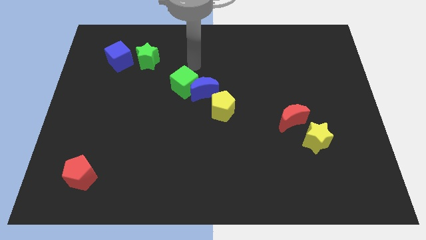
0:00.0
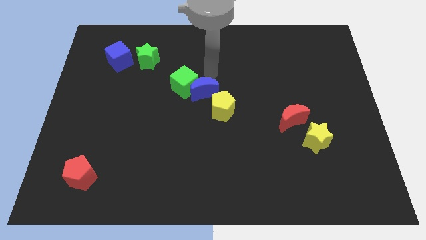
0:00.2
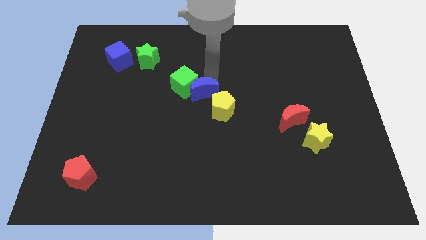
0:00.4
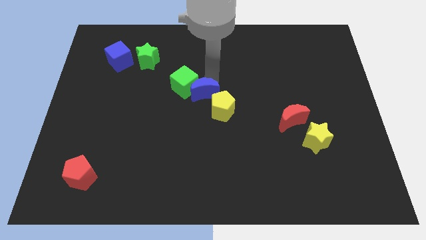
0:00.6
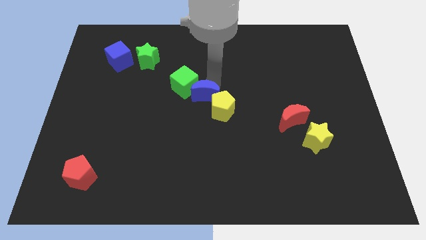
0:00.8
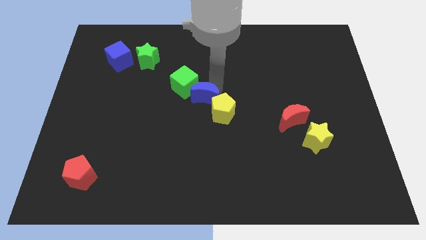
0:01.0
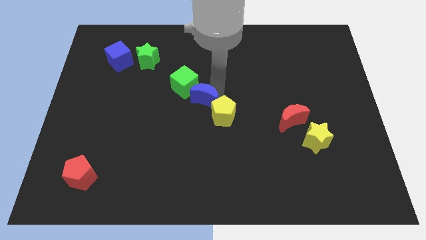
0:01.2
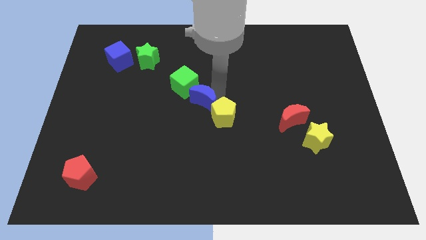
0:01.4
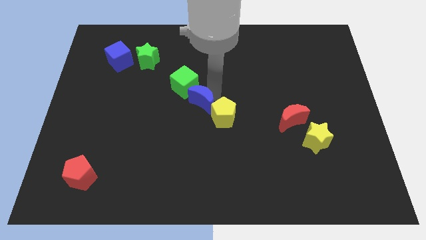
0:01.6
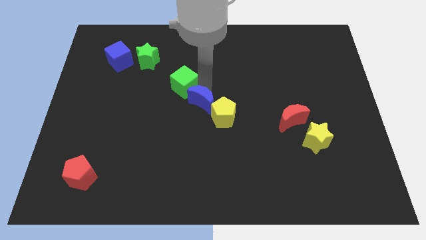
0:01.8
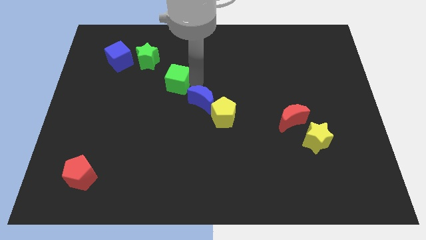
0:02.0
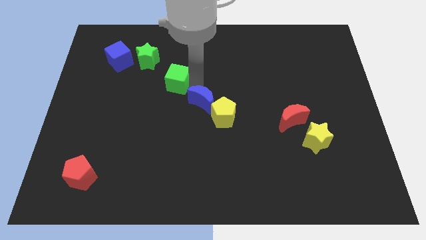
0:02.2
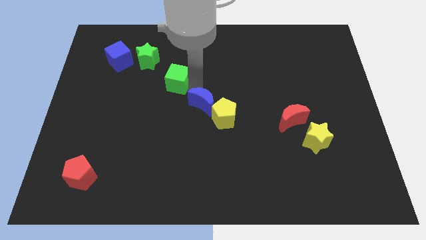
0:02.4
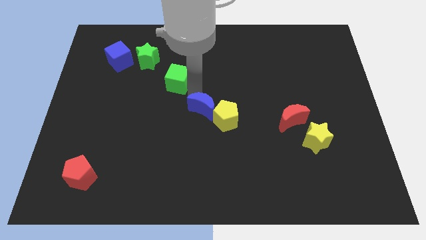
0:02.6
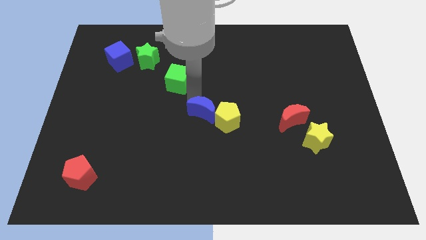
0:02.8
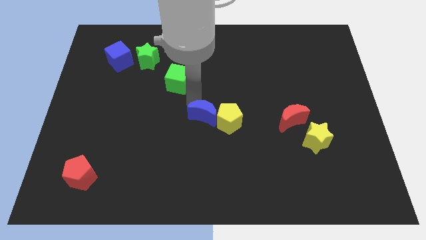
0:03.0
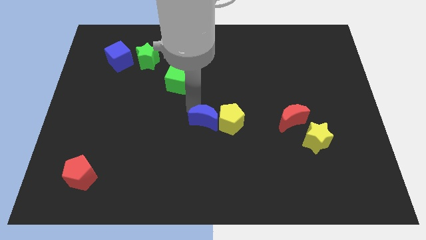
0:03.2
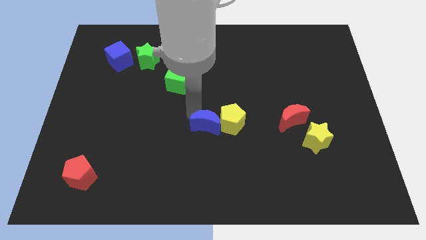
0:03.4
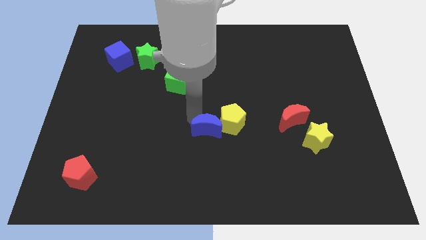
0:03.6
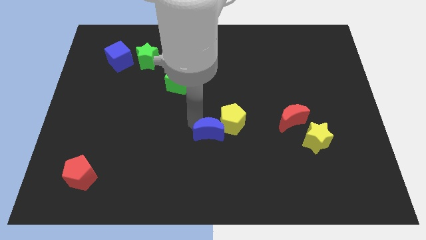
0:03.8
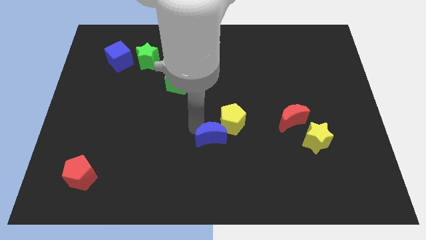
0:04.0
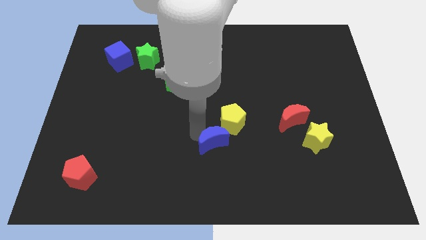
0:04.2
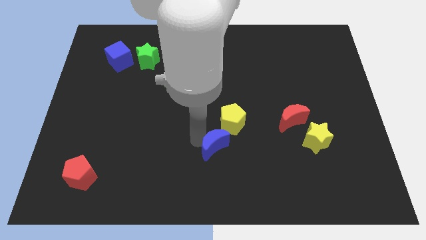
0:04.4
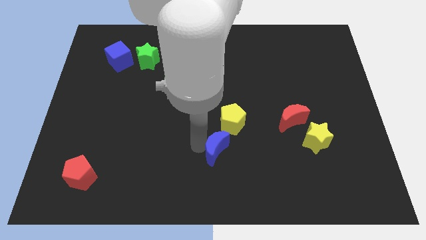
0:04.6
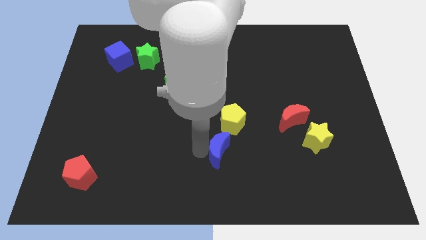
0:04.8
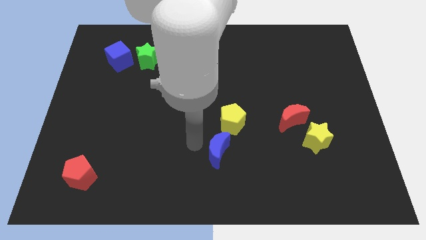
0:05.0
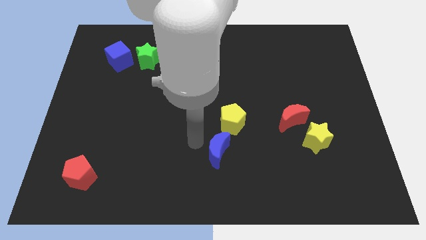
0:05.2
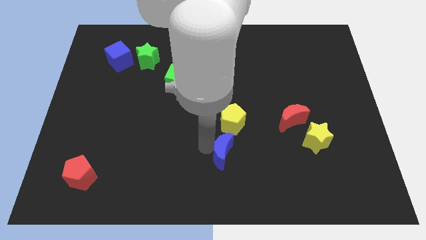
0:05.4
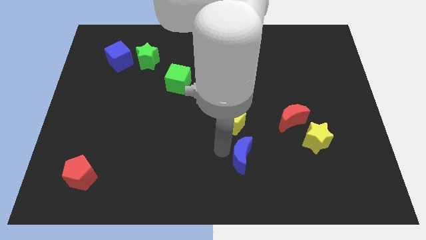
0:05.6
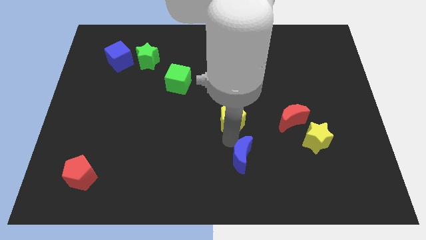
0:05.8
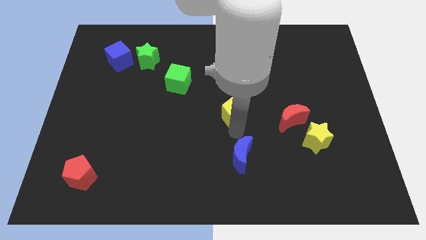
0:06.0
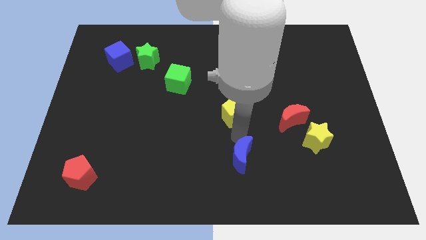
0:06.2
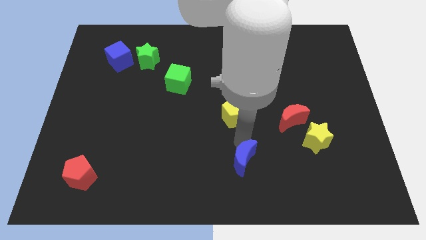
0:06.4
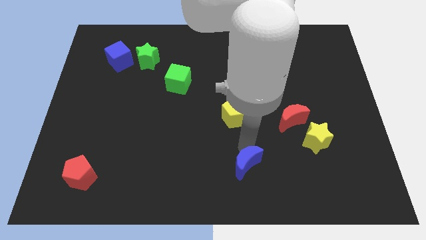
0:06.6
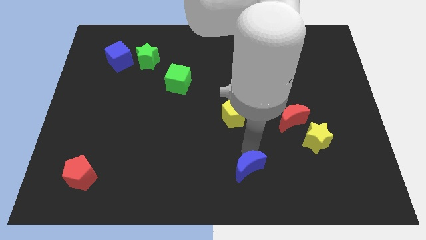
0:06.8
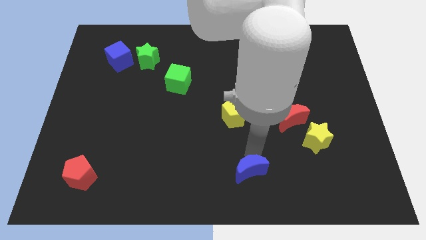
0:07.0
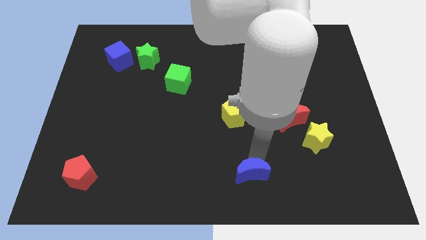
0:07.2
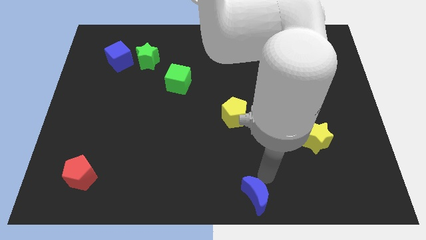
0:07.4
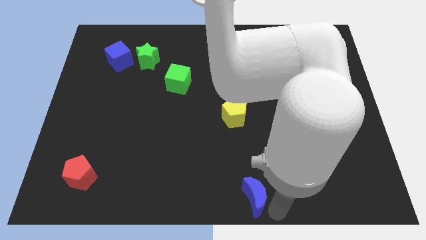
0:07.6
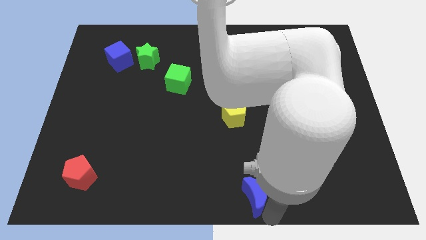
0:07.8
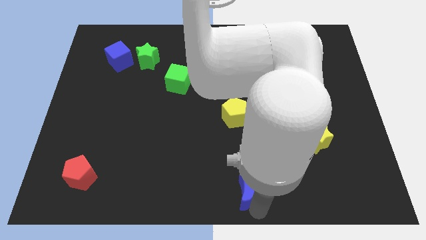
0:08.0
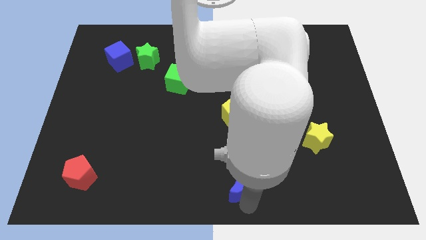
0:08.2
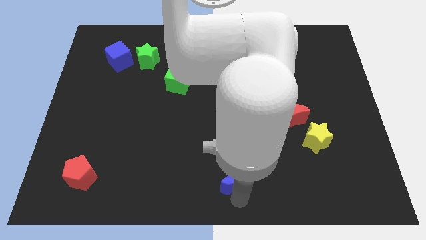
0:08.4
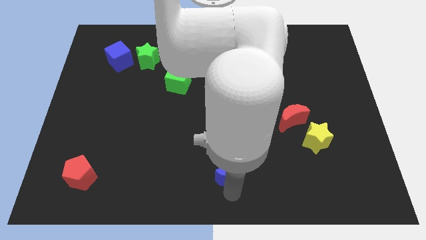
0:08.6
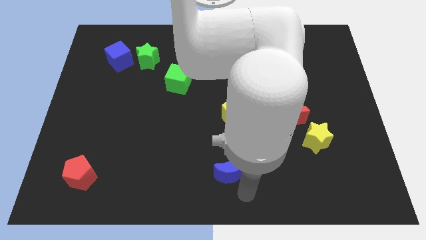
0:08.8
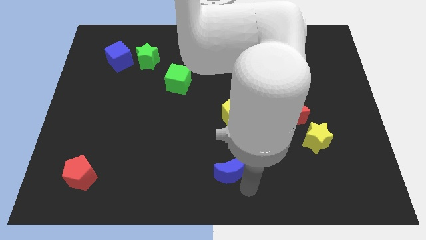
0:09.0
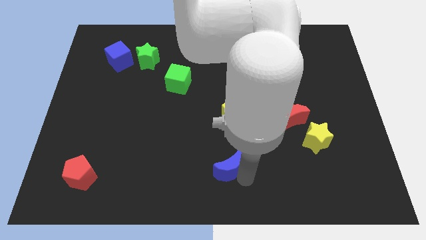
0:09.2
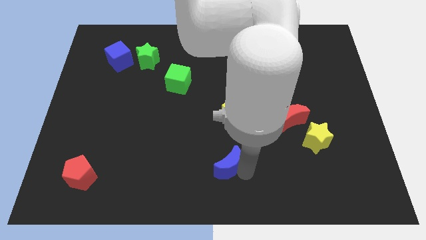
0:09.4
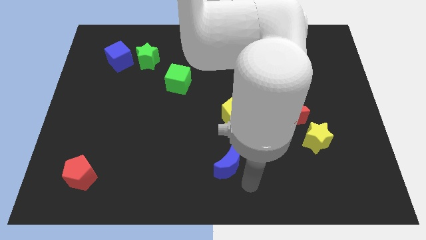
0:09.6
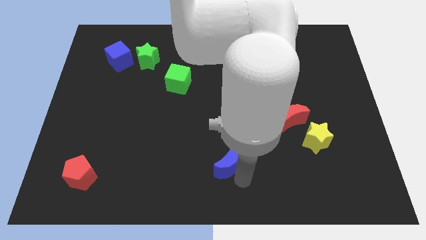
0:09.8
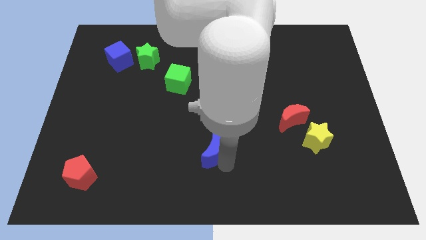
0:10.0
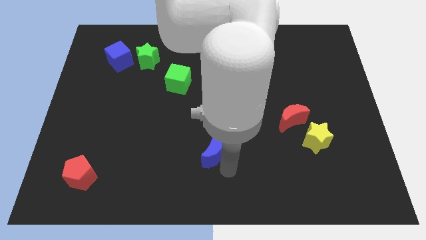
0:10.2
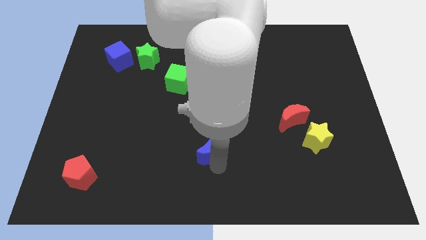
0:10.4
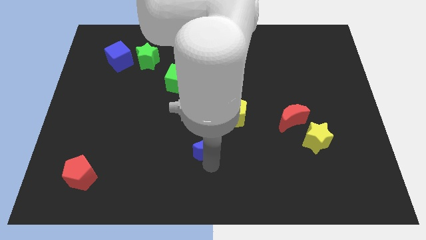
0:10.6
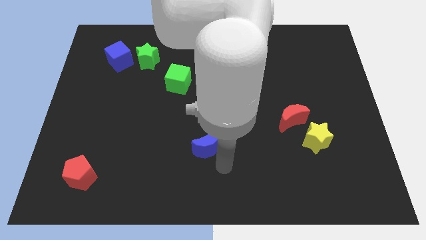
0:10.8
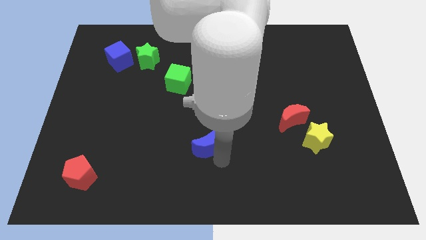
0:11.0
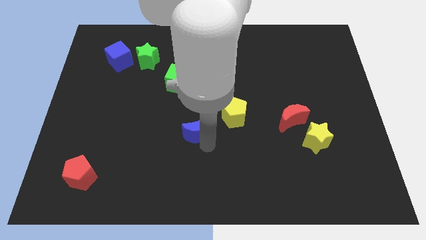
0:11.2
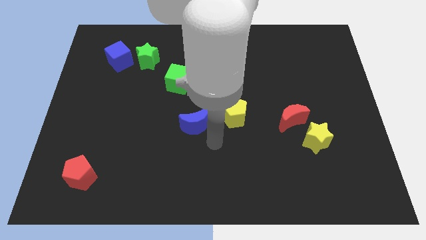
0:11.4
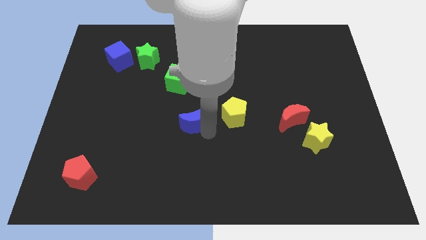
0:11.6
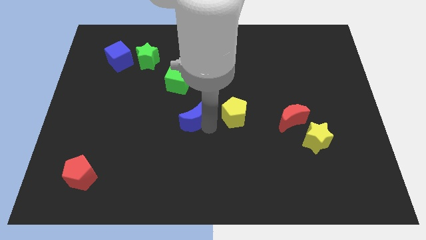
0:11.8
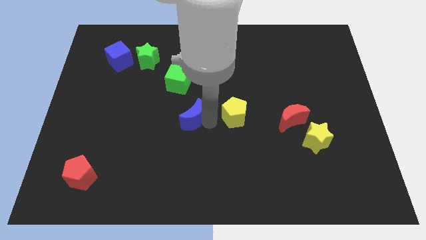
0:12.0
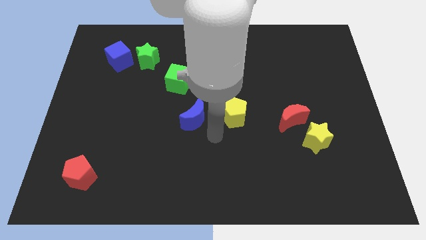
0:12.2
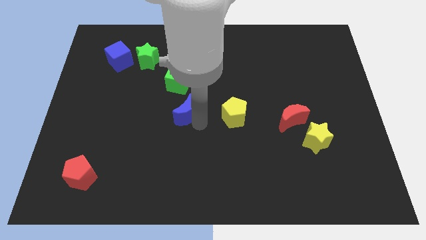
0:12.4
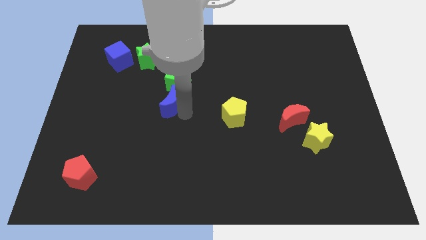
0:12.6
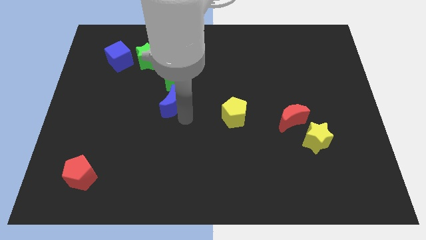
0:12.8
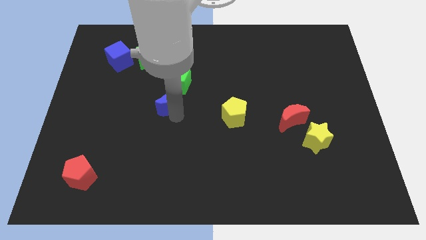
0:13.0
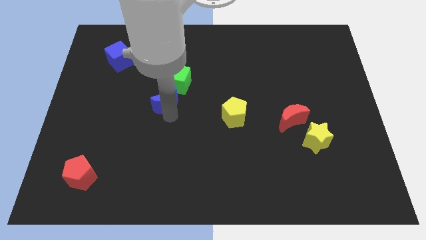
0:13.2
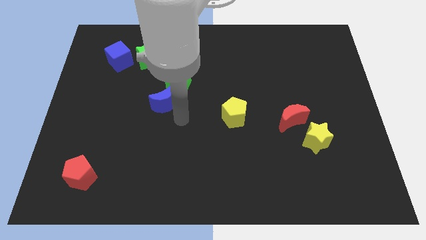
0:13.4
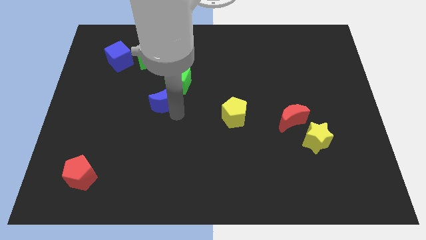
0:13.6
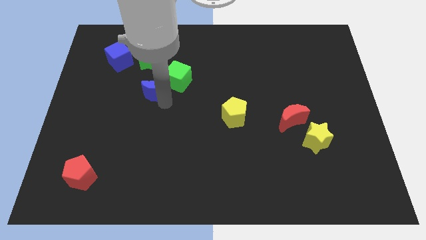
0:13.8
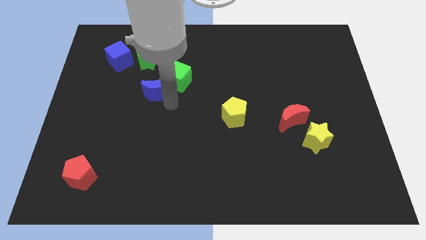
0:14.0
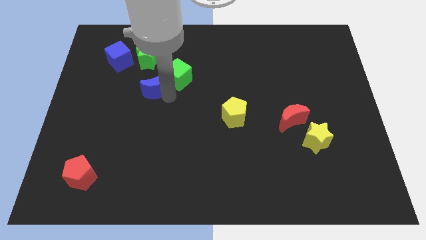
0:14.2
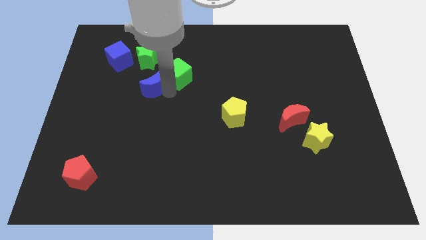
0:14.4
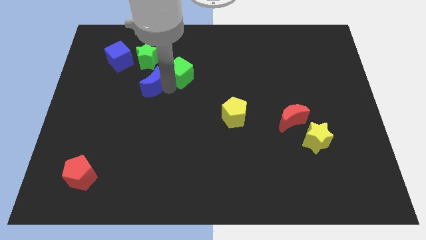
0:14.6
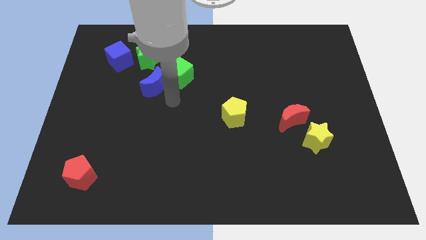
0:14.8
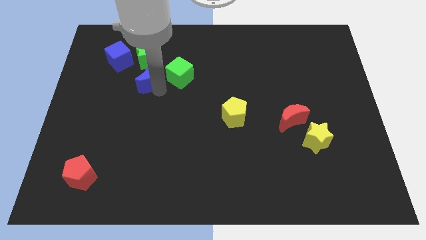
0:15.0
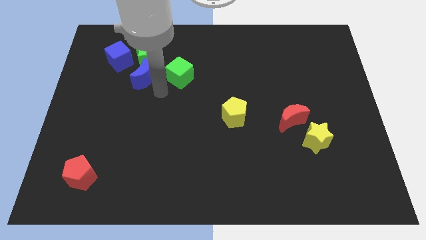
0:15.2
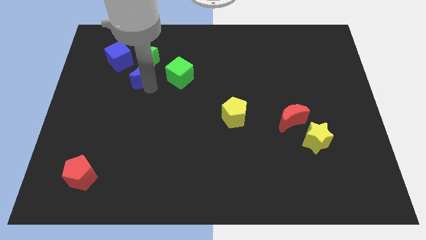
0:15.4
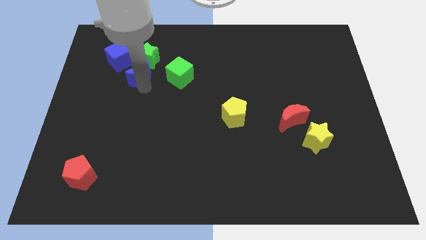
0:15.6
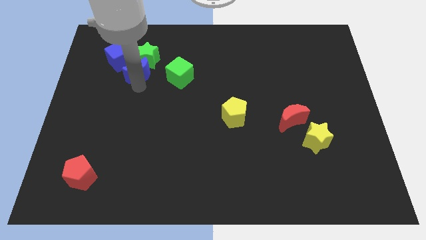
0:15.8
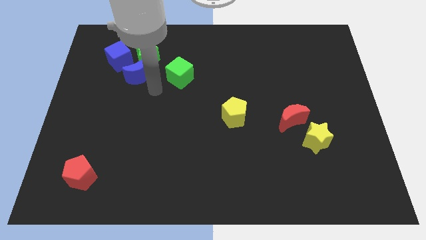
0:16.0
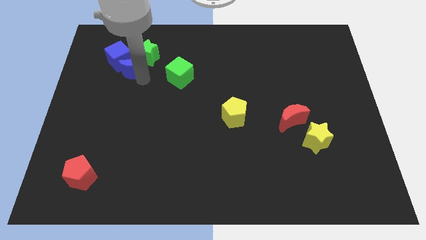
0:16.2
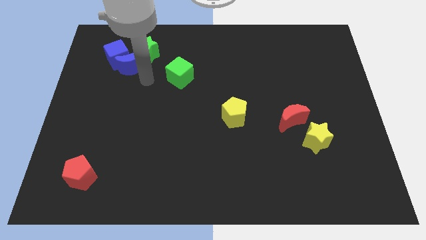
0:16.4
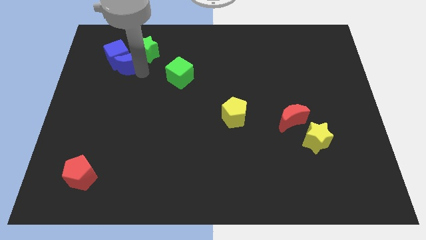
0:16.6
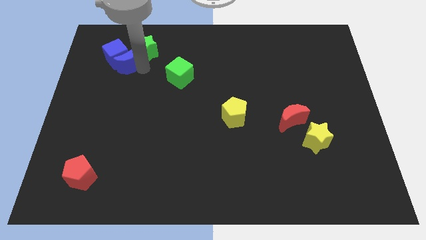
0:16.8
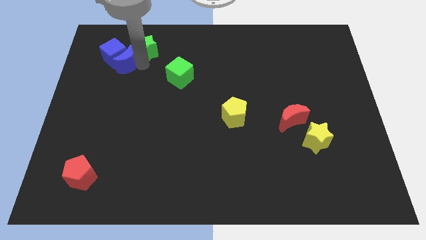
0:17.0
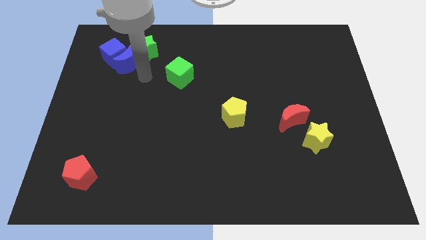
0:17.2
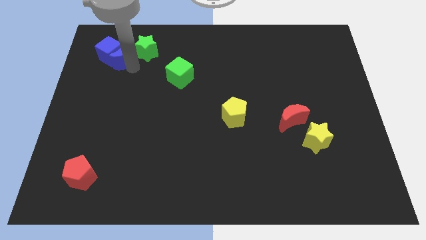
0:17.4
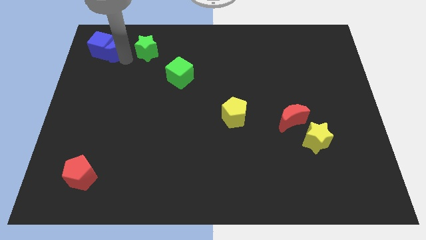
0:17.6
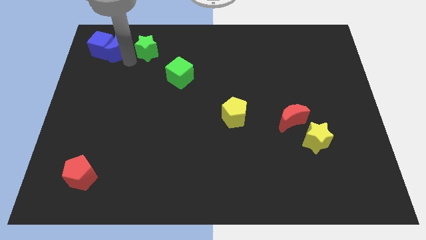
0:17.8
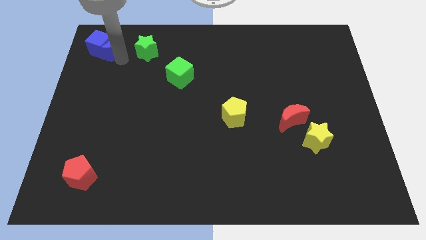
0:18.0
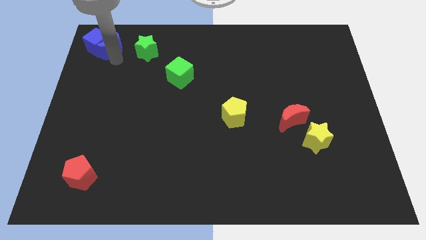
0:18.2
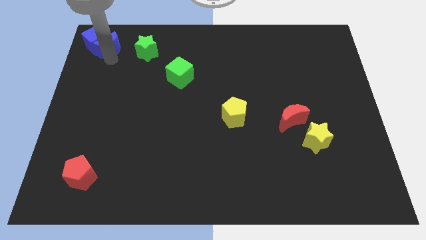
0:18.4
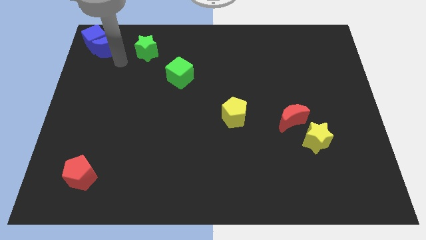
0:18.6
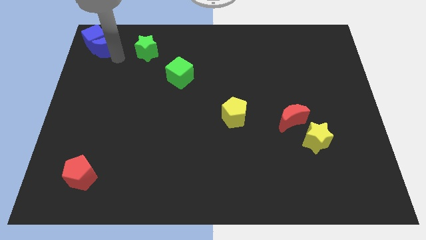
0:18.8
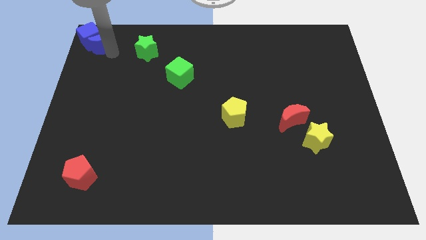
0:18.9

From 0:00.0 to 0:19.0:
slide the blue moon to the top left corner
